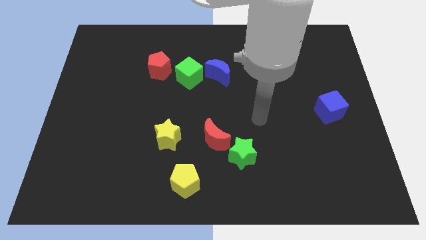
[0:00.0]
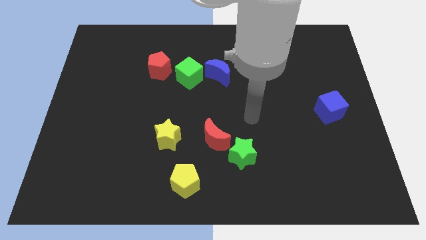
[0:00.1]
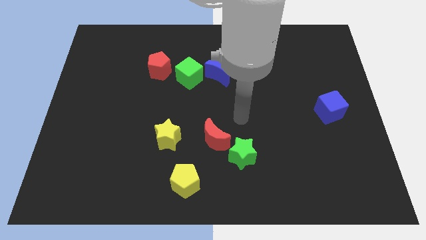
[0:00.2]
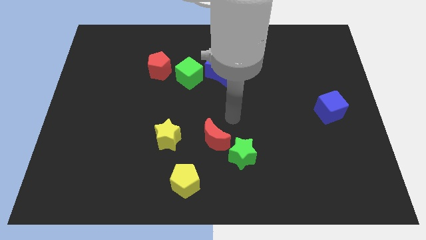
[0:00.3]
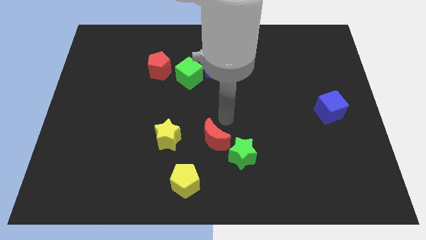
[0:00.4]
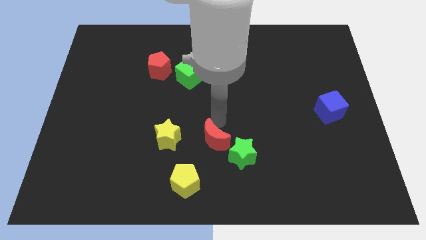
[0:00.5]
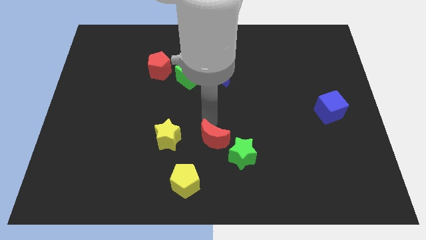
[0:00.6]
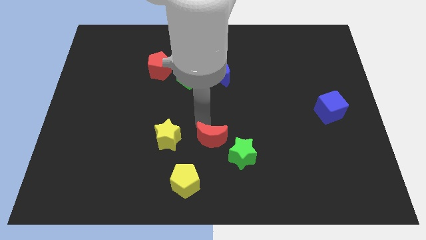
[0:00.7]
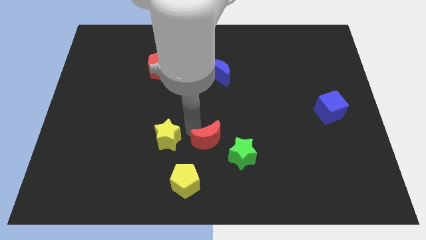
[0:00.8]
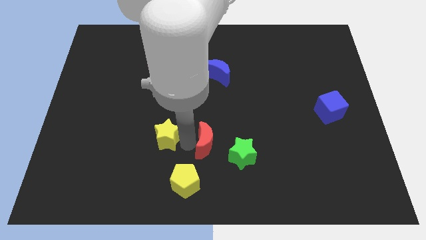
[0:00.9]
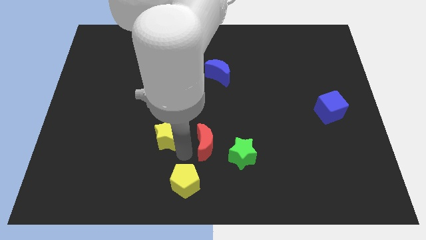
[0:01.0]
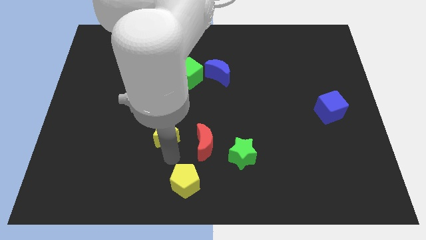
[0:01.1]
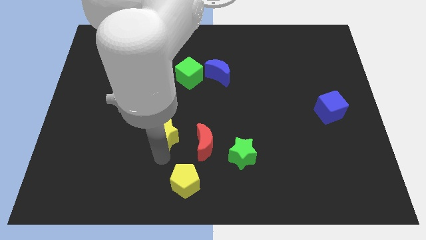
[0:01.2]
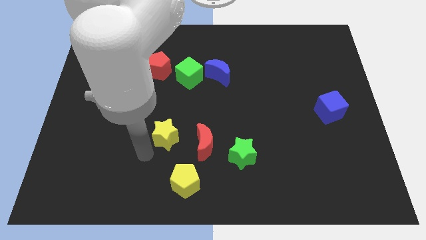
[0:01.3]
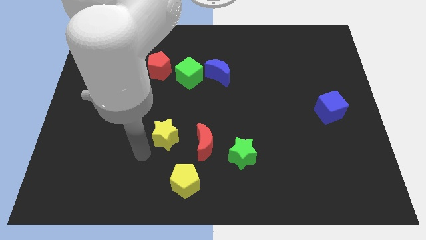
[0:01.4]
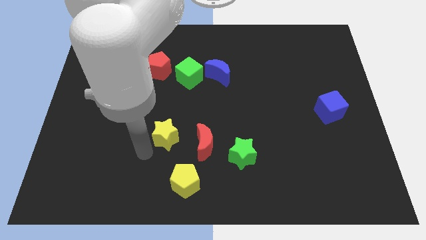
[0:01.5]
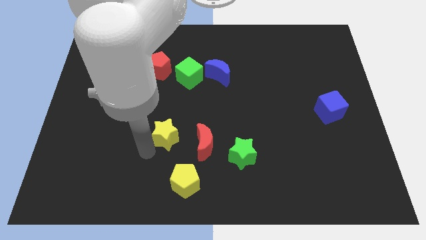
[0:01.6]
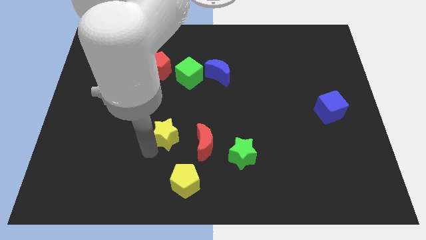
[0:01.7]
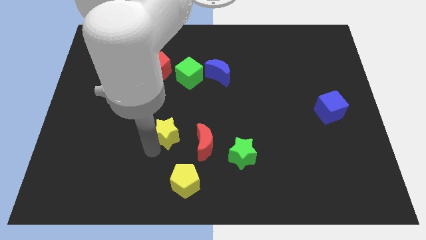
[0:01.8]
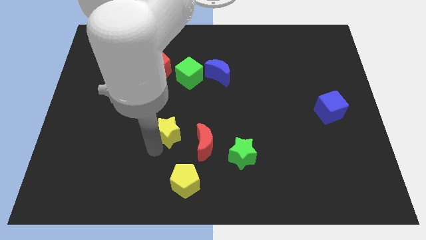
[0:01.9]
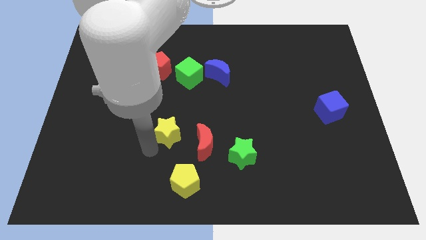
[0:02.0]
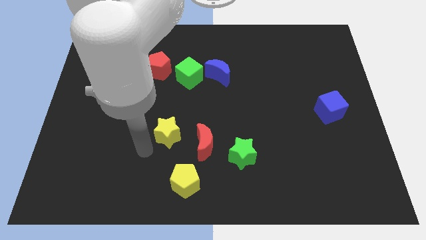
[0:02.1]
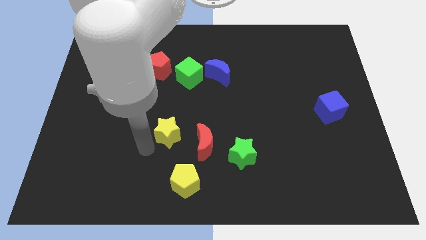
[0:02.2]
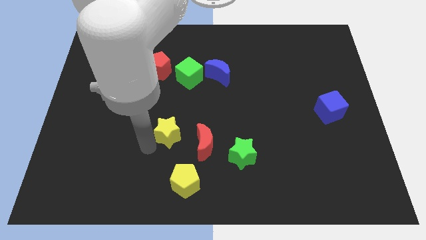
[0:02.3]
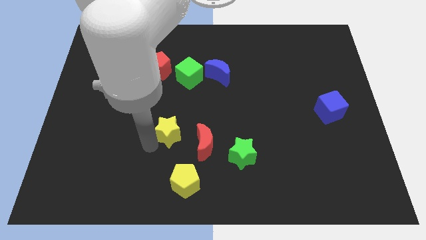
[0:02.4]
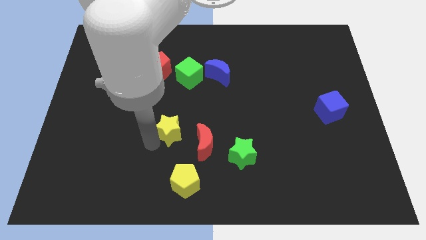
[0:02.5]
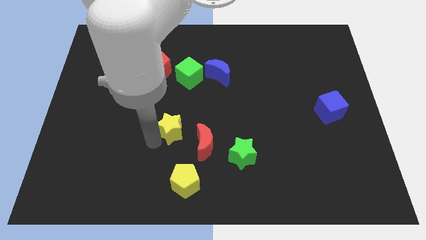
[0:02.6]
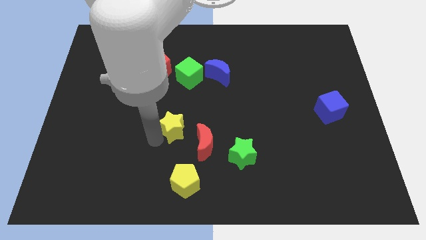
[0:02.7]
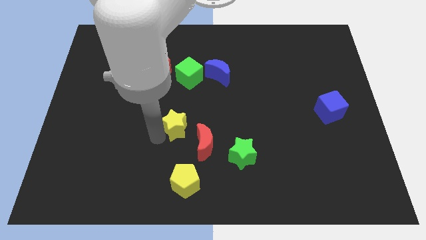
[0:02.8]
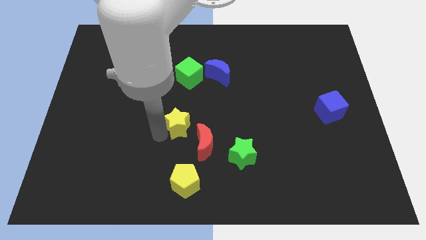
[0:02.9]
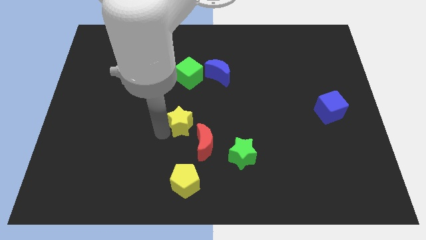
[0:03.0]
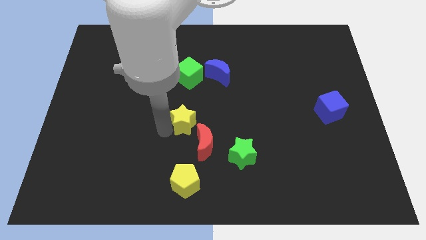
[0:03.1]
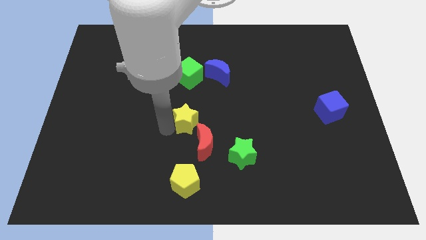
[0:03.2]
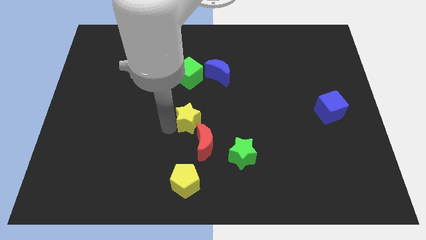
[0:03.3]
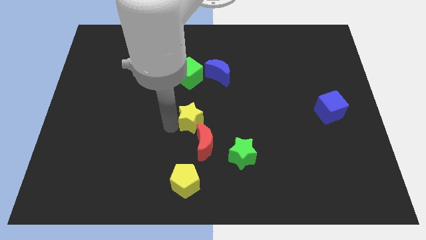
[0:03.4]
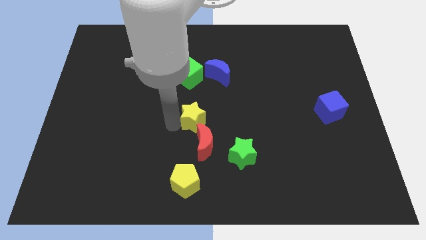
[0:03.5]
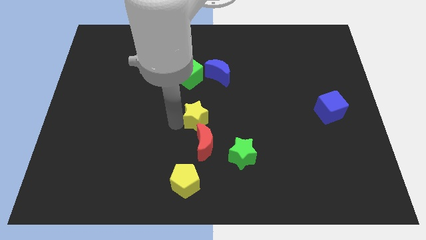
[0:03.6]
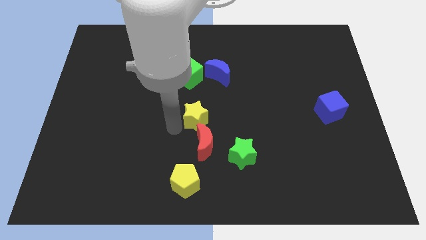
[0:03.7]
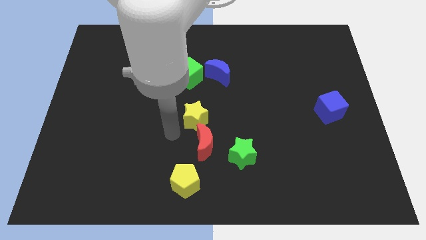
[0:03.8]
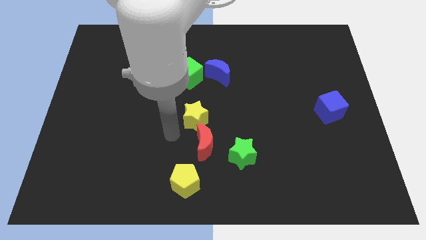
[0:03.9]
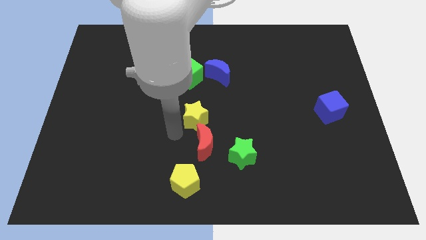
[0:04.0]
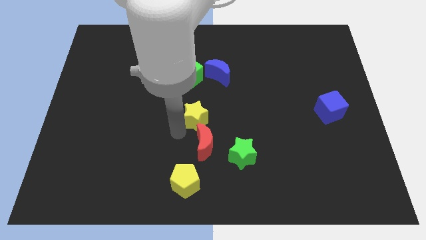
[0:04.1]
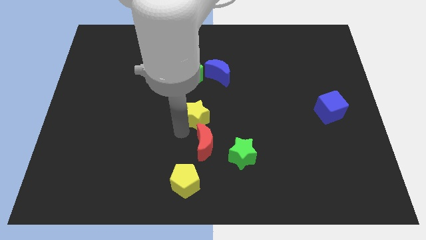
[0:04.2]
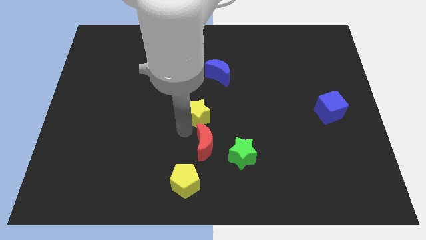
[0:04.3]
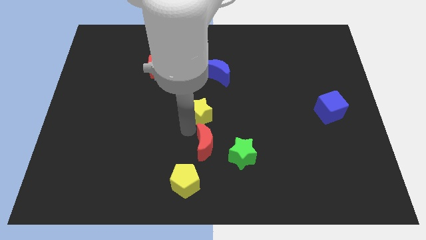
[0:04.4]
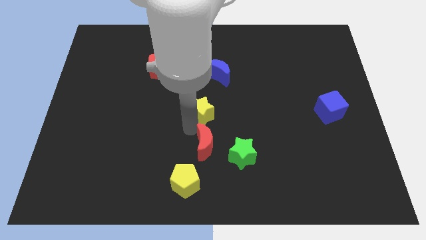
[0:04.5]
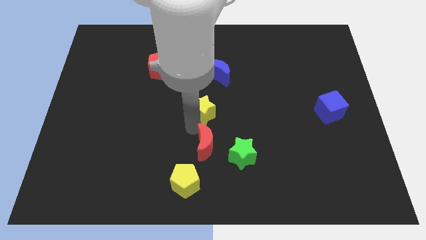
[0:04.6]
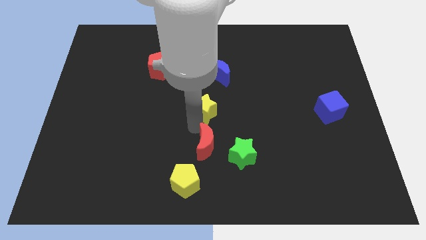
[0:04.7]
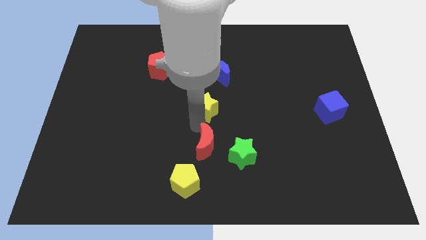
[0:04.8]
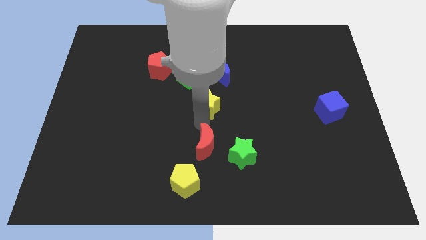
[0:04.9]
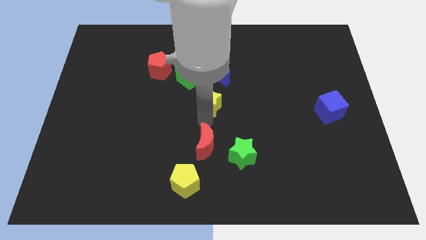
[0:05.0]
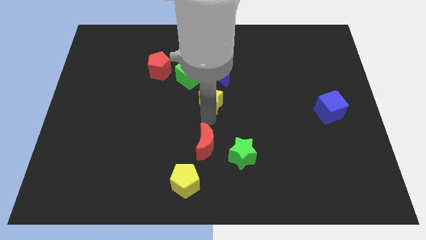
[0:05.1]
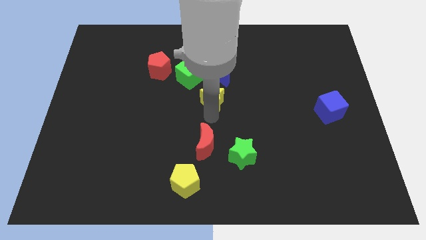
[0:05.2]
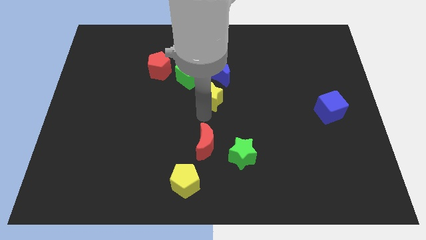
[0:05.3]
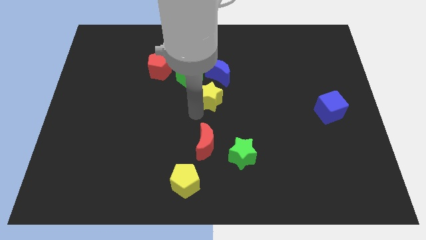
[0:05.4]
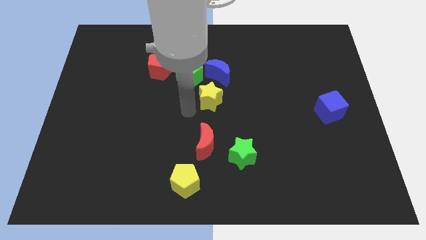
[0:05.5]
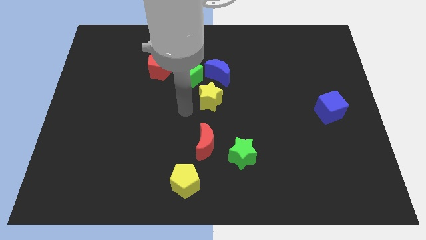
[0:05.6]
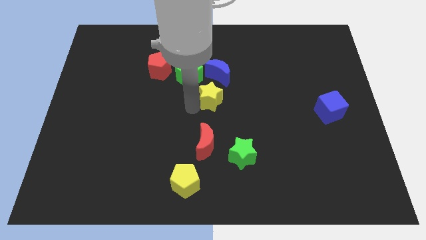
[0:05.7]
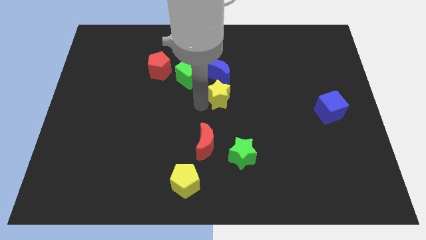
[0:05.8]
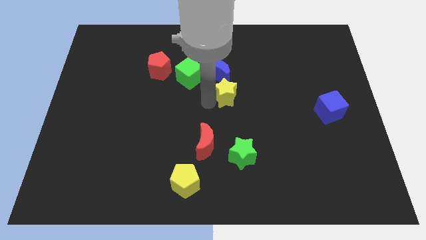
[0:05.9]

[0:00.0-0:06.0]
put the yellow star diagonally down and to the right of the blue moon

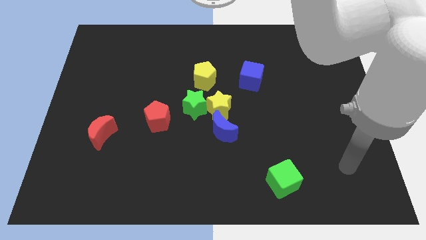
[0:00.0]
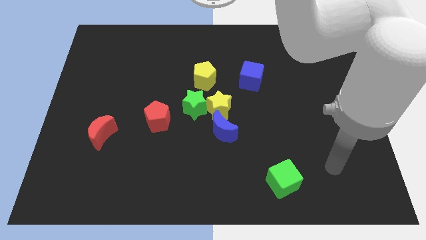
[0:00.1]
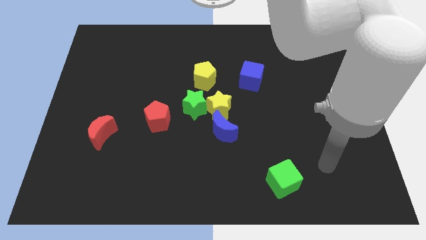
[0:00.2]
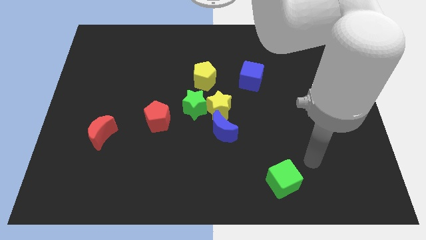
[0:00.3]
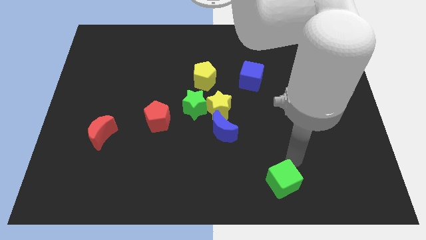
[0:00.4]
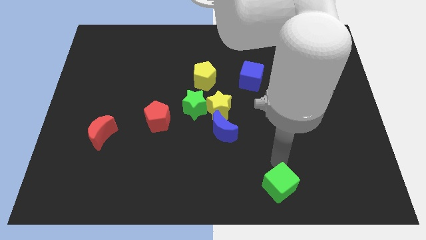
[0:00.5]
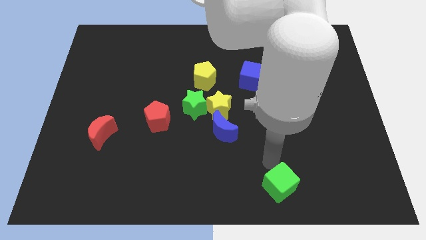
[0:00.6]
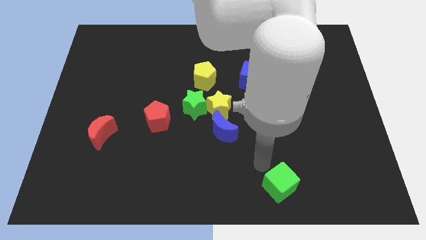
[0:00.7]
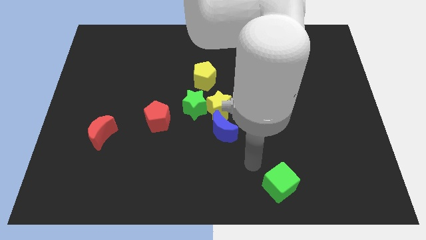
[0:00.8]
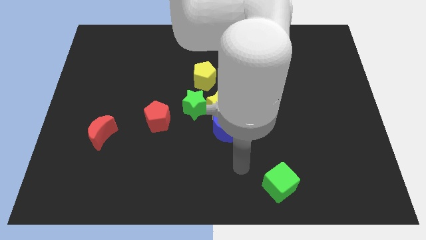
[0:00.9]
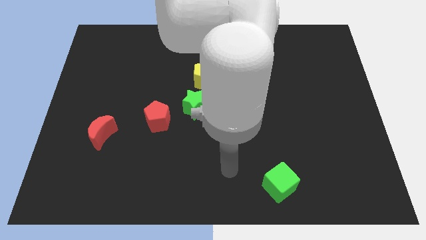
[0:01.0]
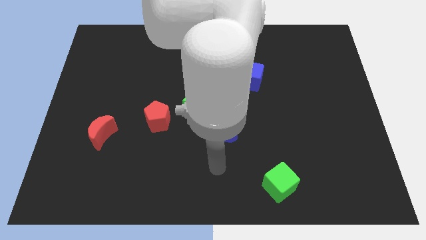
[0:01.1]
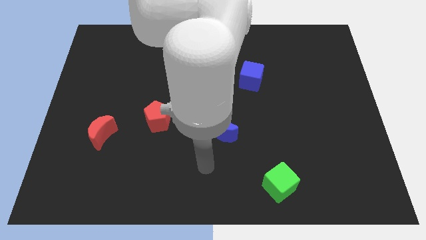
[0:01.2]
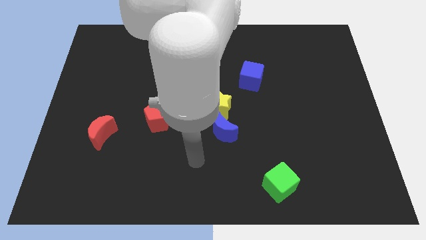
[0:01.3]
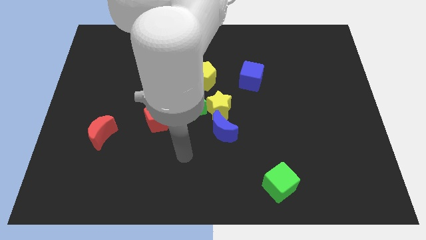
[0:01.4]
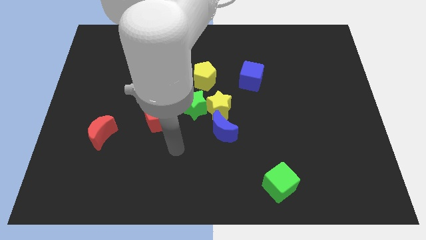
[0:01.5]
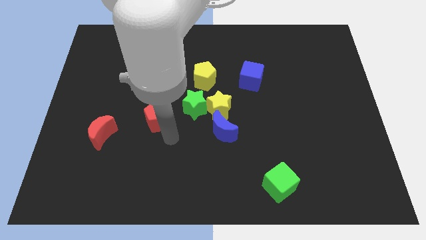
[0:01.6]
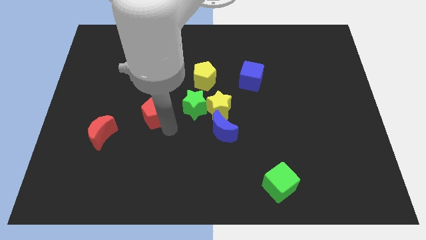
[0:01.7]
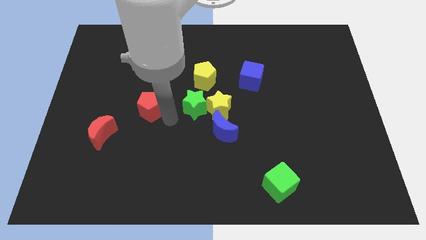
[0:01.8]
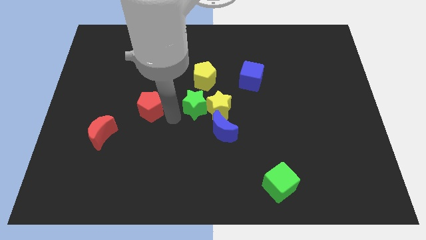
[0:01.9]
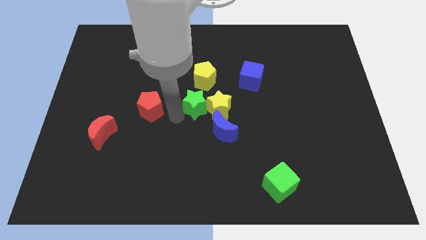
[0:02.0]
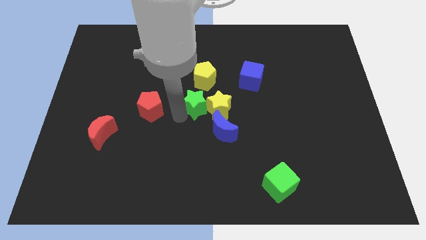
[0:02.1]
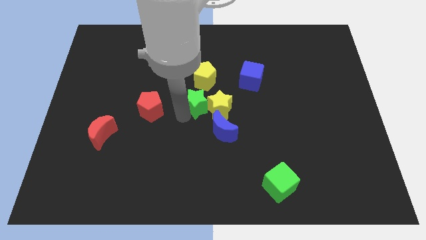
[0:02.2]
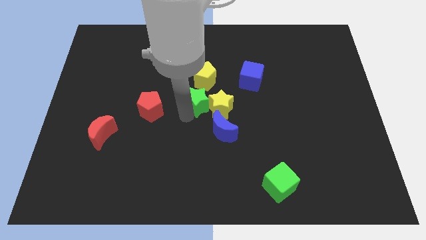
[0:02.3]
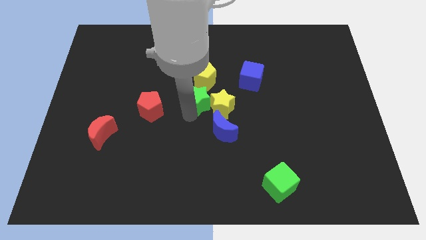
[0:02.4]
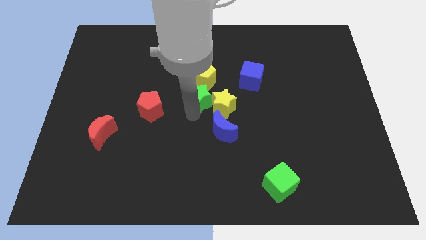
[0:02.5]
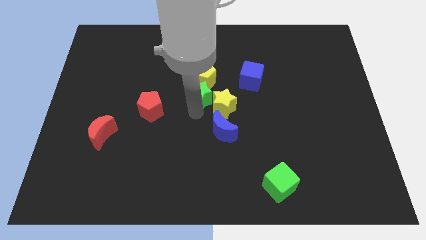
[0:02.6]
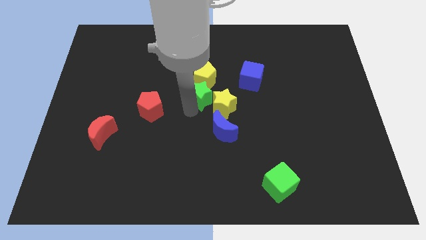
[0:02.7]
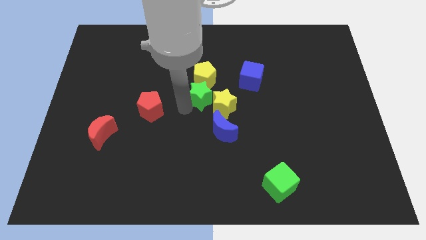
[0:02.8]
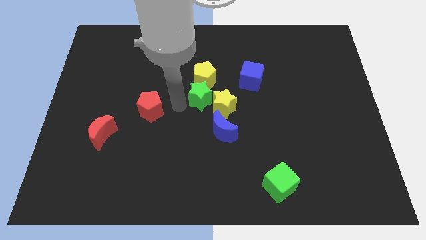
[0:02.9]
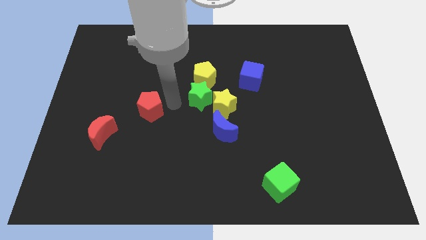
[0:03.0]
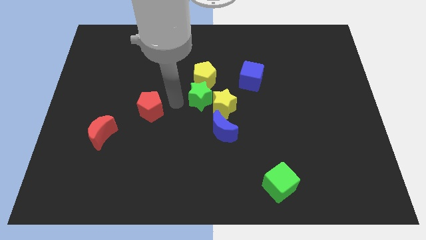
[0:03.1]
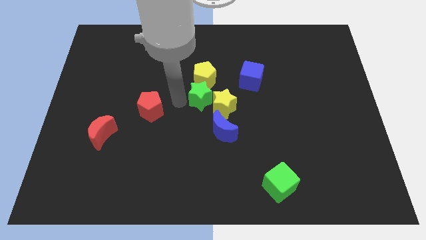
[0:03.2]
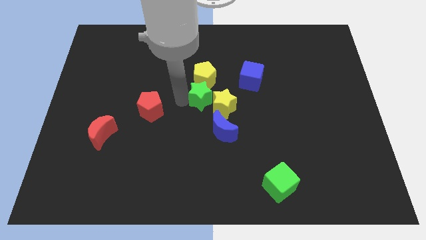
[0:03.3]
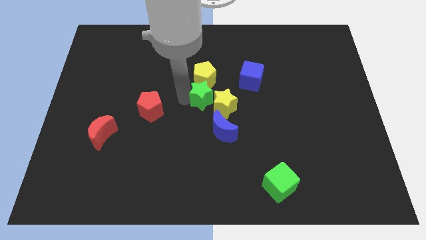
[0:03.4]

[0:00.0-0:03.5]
put the green star to the top of the blue moon
